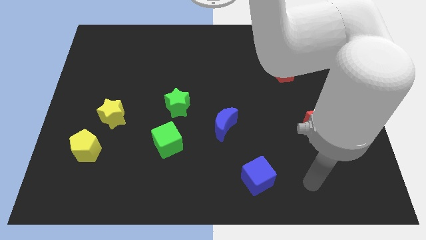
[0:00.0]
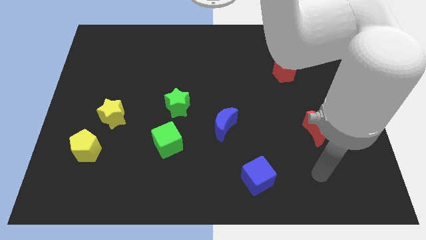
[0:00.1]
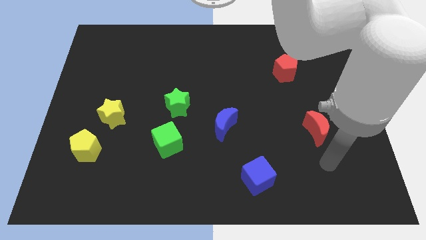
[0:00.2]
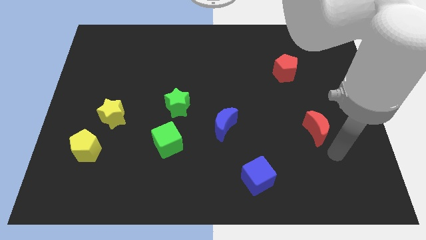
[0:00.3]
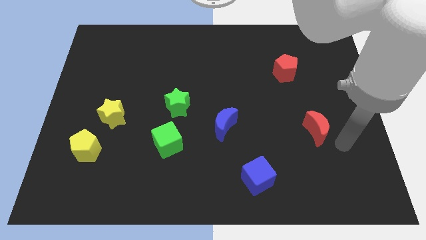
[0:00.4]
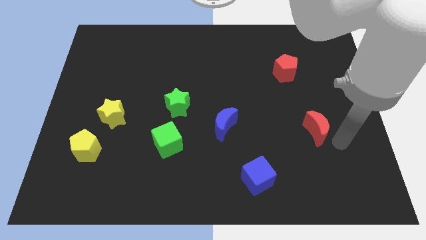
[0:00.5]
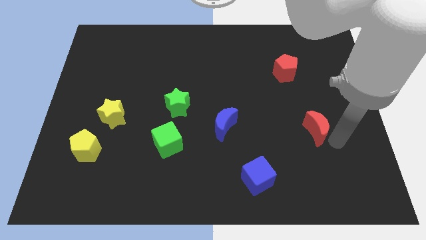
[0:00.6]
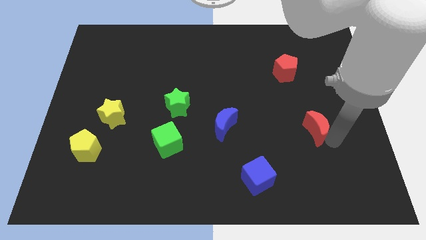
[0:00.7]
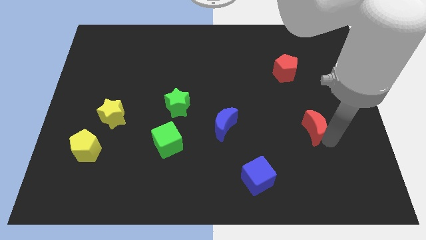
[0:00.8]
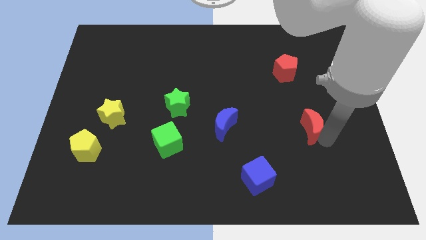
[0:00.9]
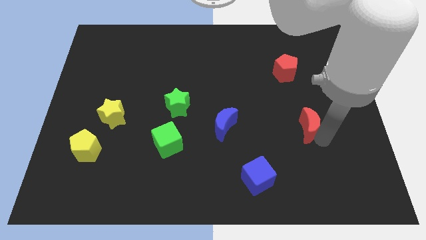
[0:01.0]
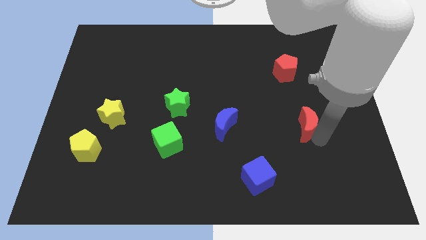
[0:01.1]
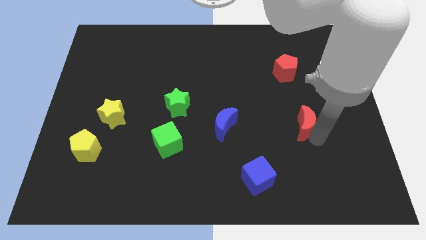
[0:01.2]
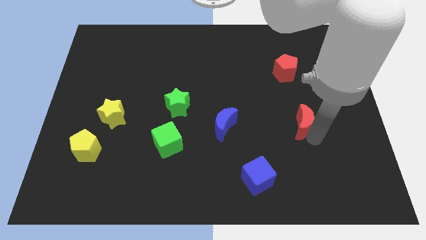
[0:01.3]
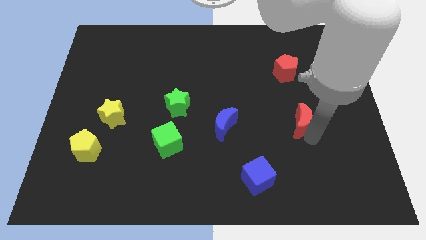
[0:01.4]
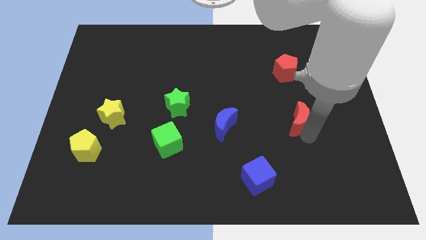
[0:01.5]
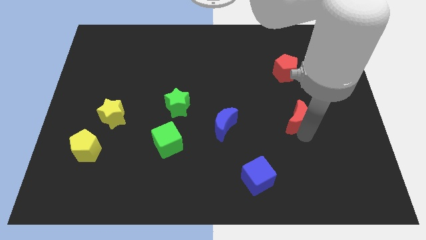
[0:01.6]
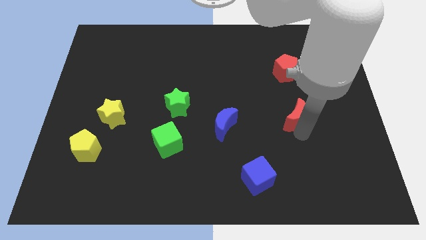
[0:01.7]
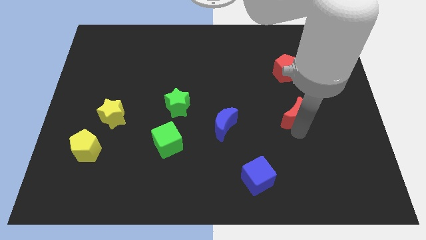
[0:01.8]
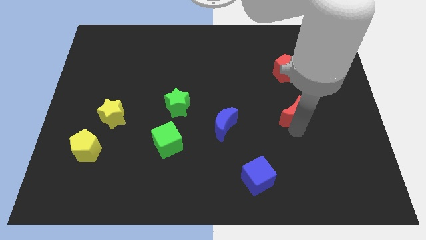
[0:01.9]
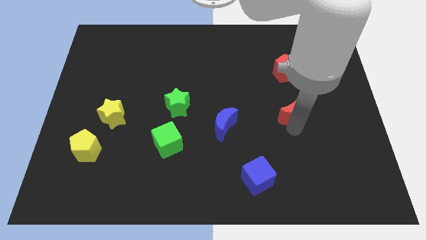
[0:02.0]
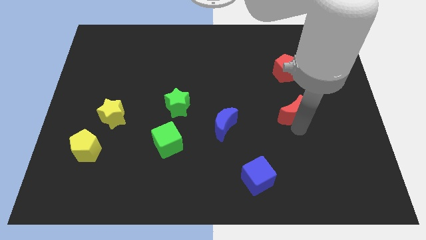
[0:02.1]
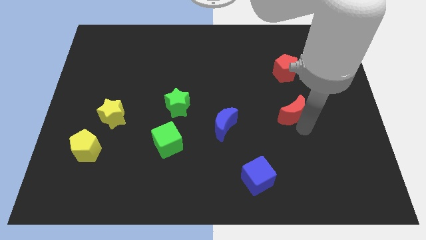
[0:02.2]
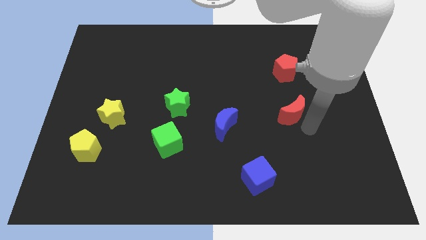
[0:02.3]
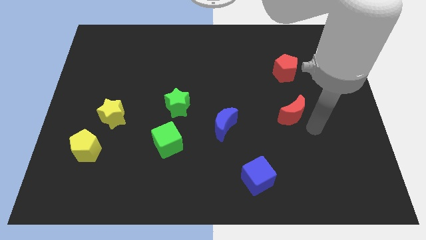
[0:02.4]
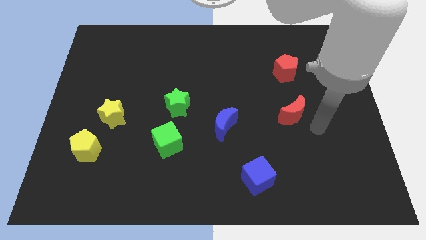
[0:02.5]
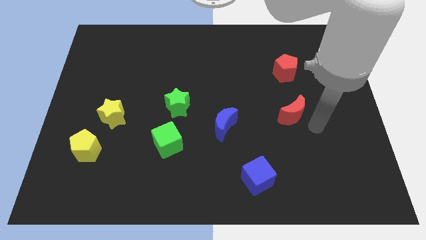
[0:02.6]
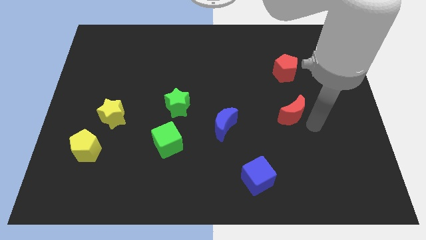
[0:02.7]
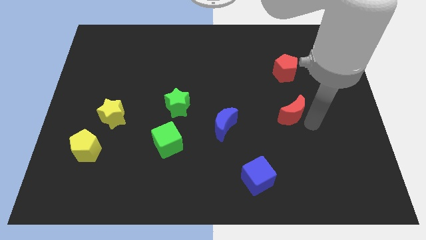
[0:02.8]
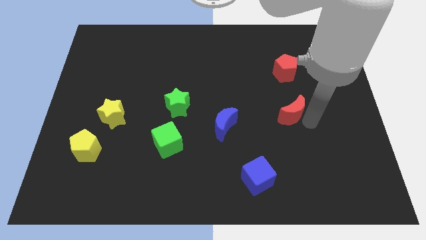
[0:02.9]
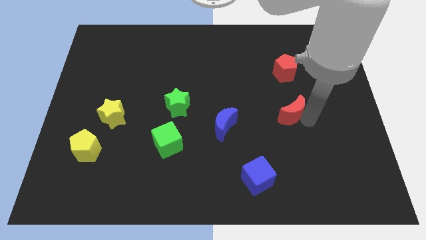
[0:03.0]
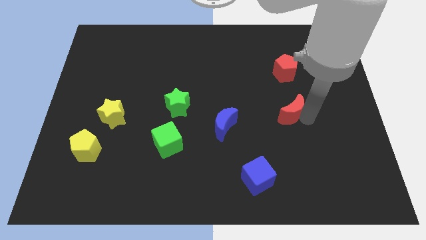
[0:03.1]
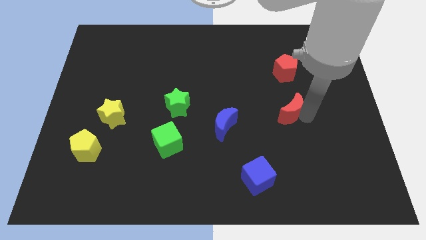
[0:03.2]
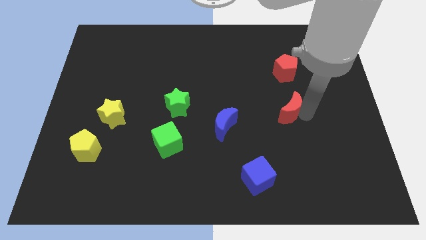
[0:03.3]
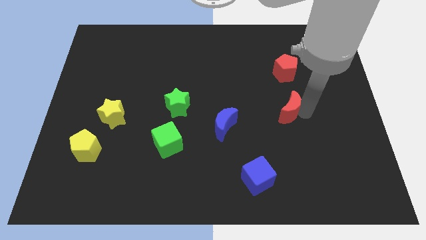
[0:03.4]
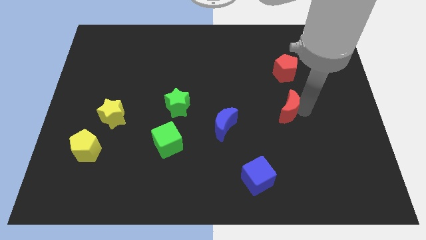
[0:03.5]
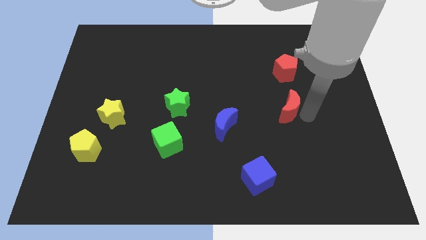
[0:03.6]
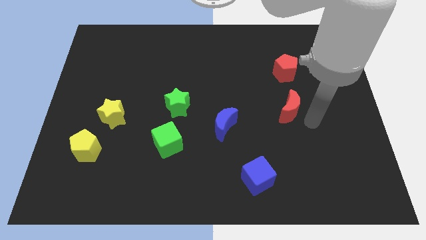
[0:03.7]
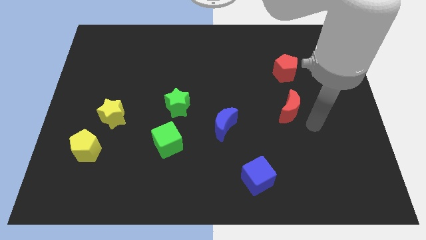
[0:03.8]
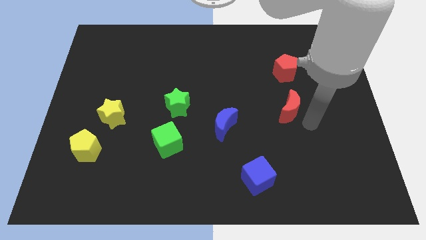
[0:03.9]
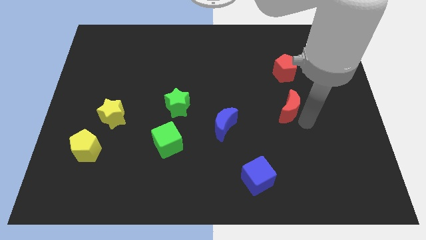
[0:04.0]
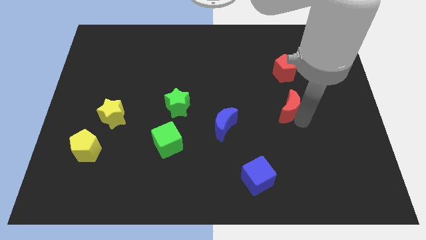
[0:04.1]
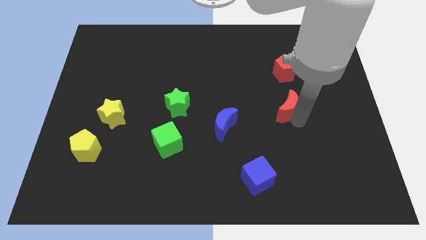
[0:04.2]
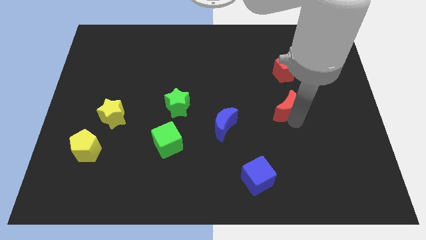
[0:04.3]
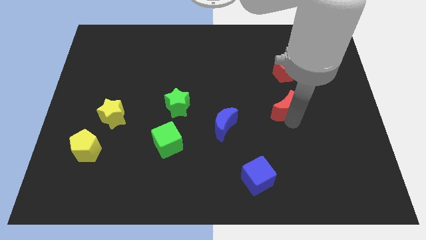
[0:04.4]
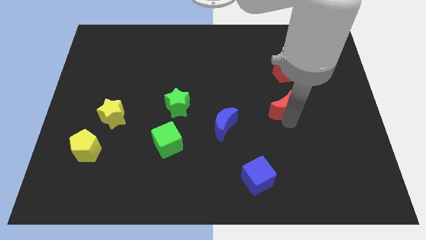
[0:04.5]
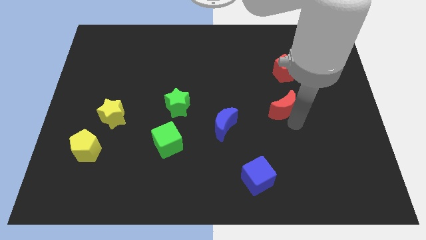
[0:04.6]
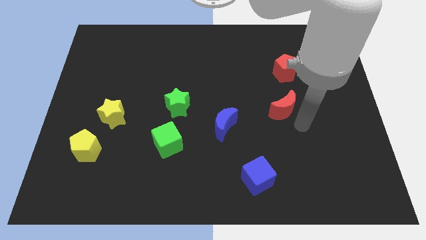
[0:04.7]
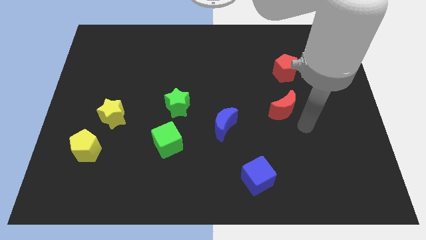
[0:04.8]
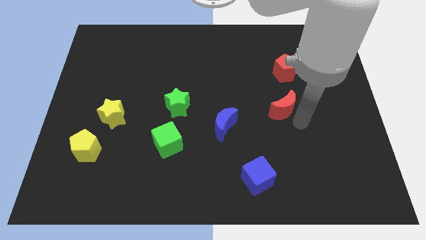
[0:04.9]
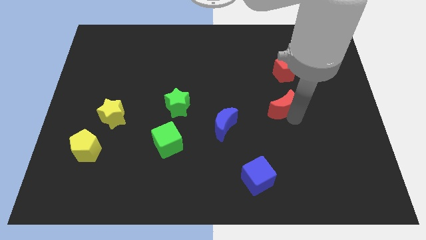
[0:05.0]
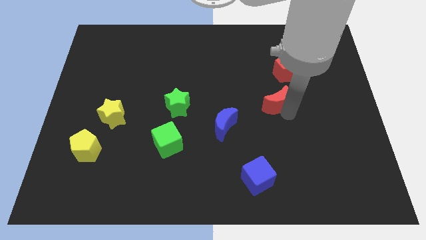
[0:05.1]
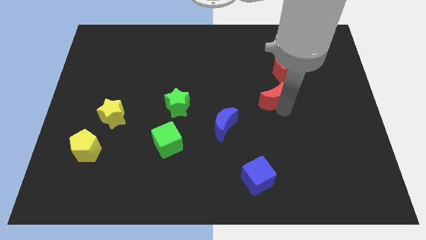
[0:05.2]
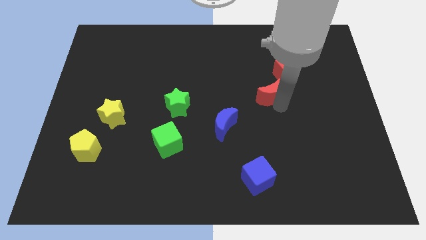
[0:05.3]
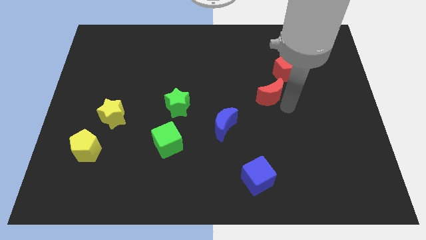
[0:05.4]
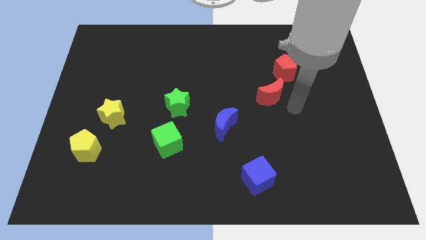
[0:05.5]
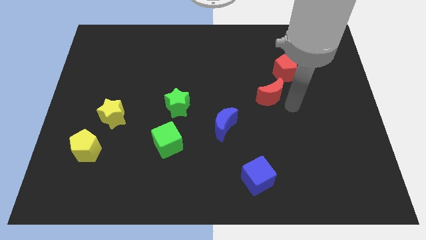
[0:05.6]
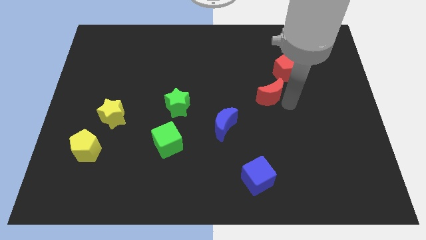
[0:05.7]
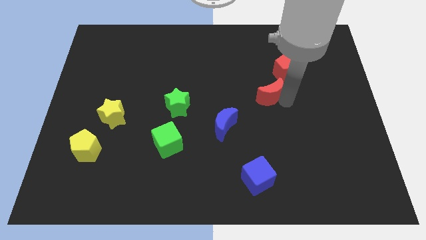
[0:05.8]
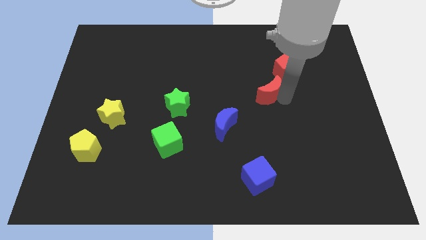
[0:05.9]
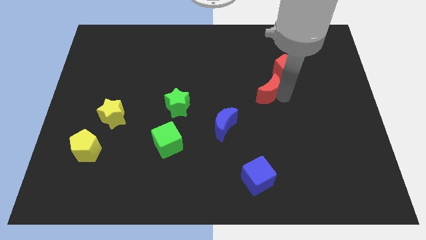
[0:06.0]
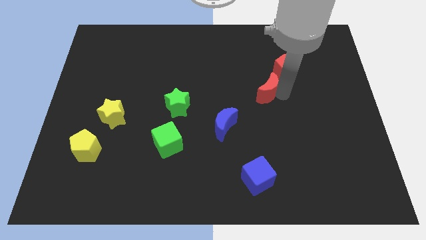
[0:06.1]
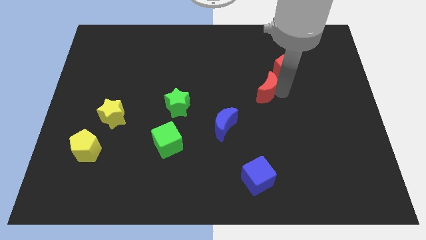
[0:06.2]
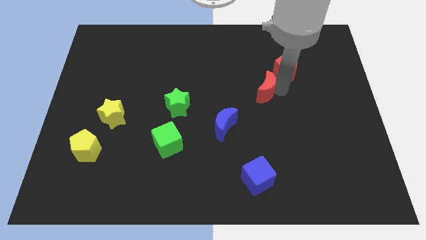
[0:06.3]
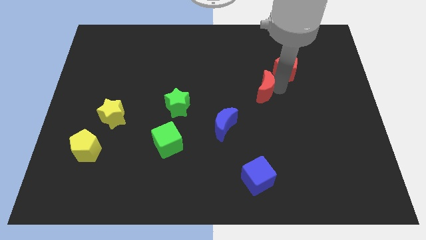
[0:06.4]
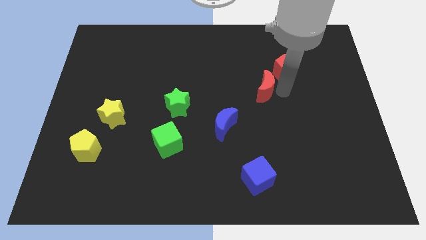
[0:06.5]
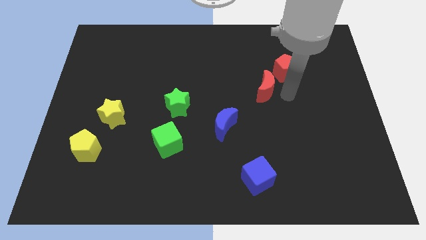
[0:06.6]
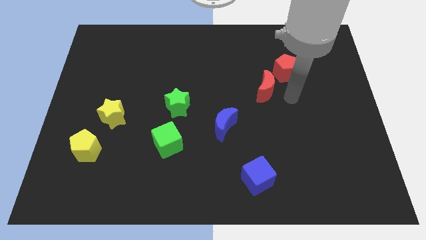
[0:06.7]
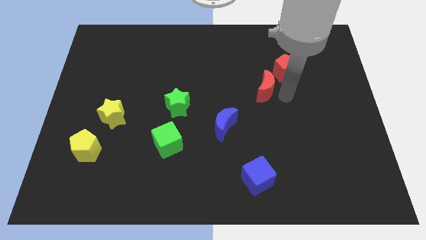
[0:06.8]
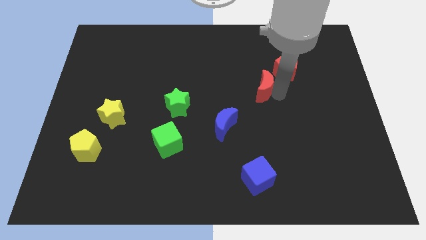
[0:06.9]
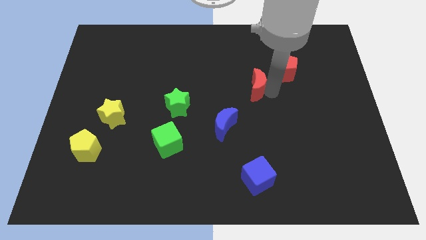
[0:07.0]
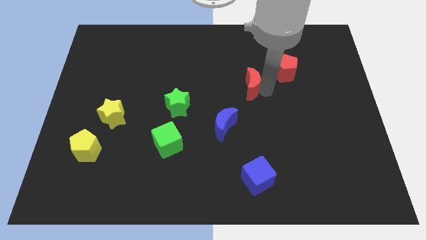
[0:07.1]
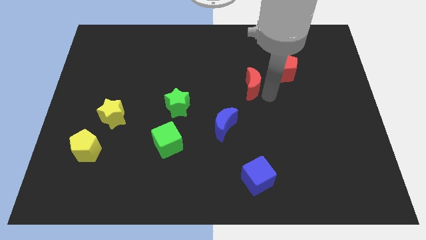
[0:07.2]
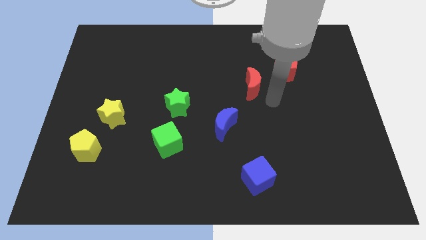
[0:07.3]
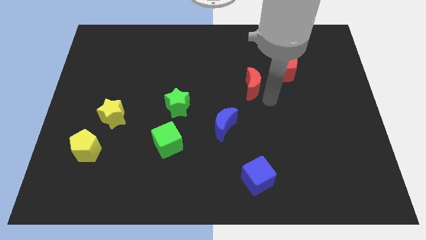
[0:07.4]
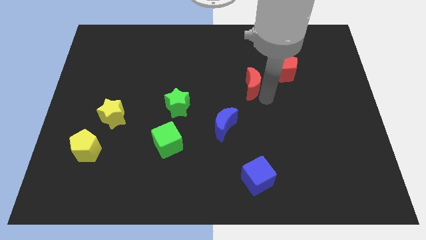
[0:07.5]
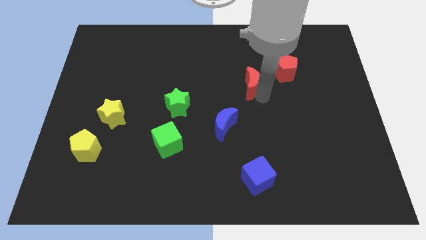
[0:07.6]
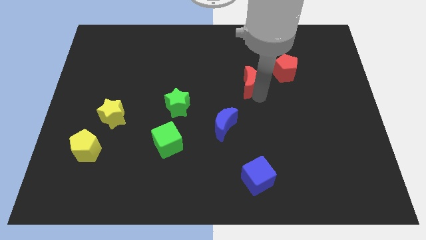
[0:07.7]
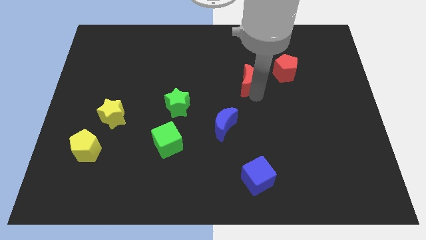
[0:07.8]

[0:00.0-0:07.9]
move the red moon up and left
